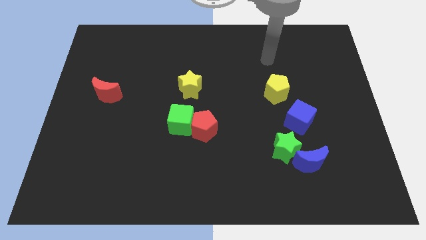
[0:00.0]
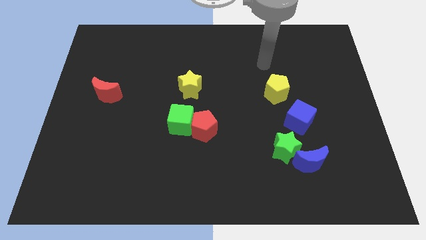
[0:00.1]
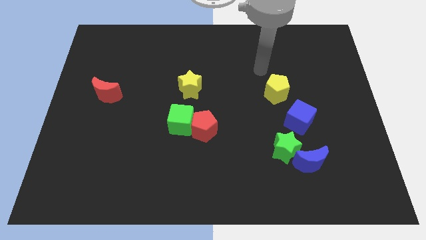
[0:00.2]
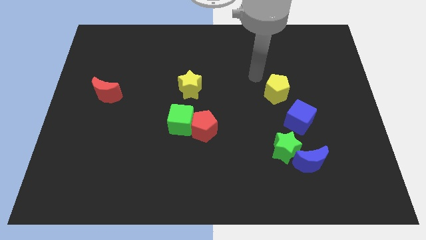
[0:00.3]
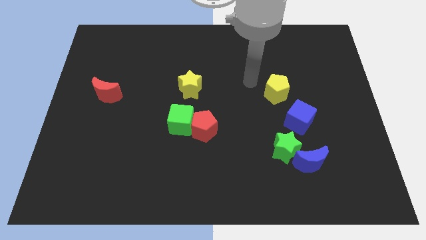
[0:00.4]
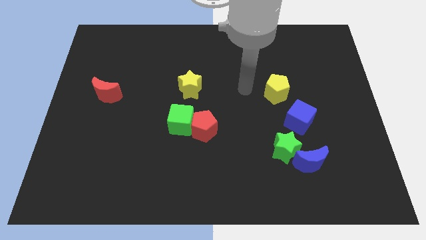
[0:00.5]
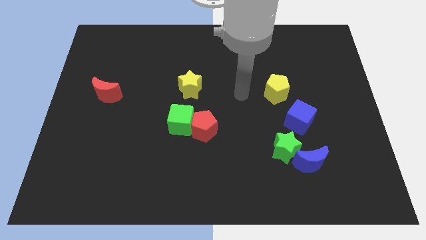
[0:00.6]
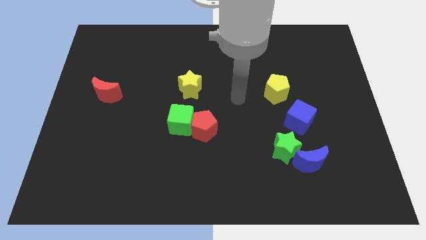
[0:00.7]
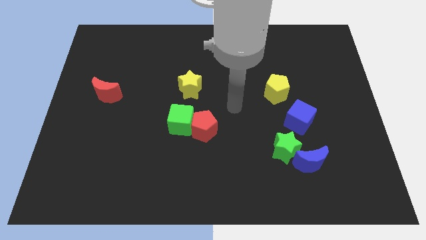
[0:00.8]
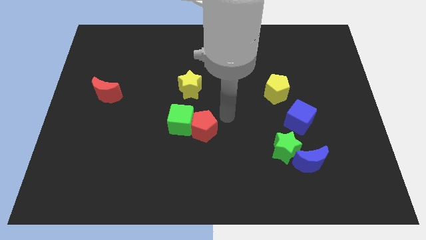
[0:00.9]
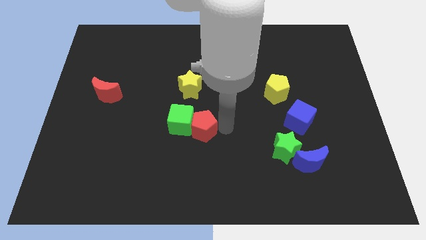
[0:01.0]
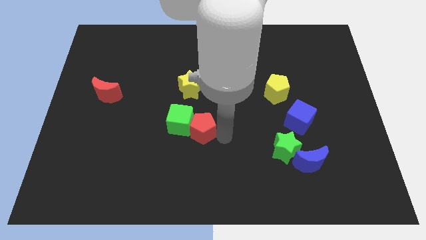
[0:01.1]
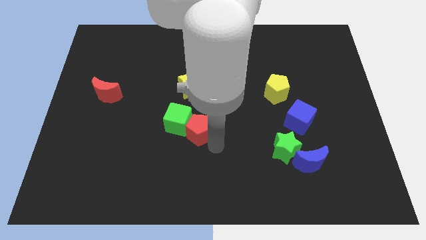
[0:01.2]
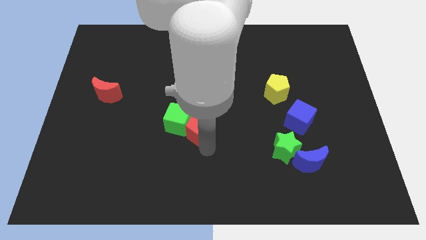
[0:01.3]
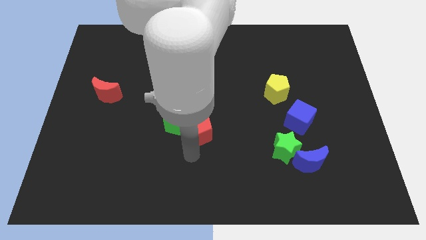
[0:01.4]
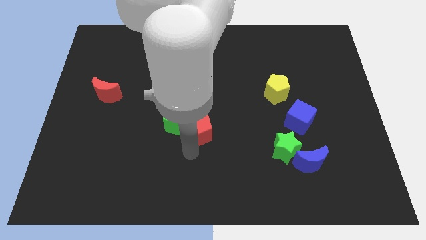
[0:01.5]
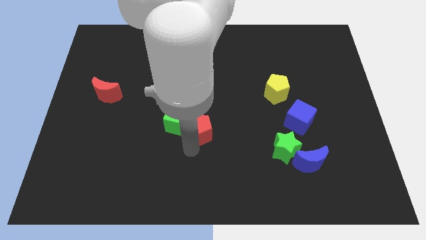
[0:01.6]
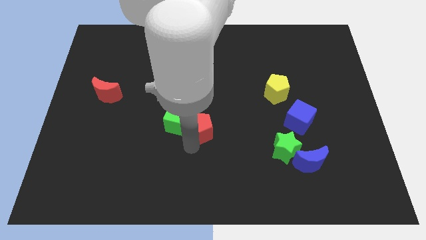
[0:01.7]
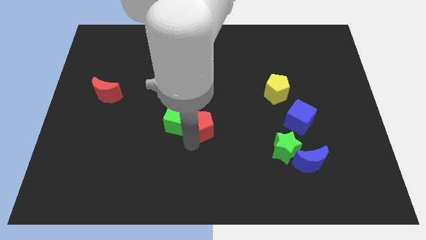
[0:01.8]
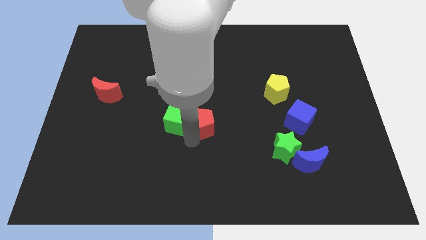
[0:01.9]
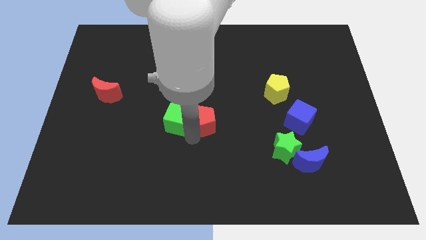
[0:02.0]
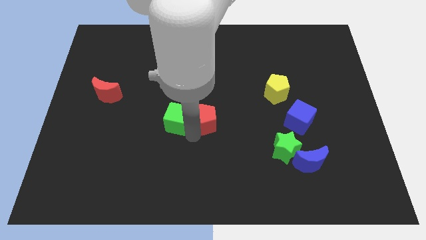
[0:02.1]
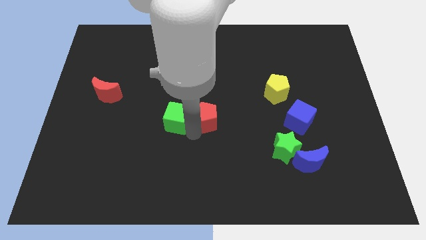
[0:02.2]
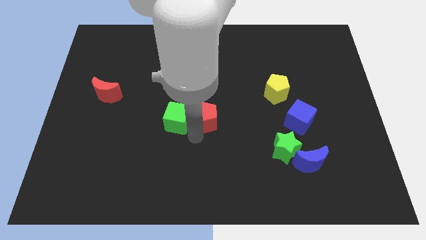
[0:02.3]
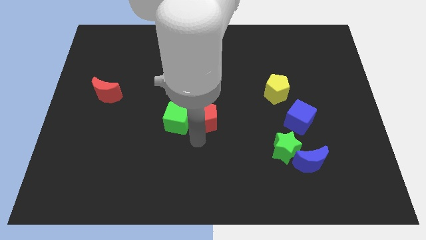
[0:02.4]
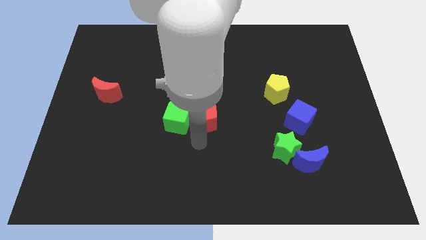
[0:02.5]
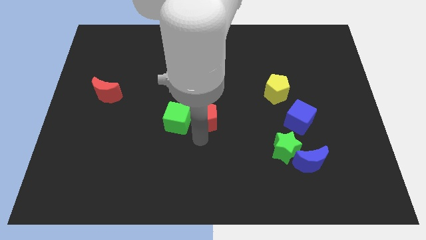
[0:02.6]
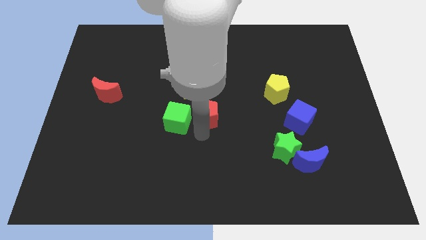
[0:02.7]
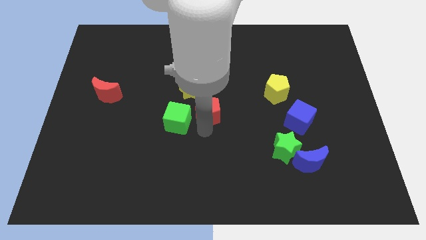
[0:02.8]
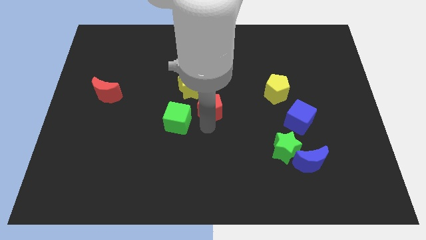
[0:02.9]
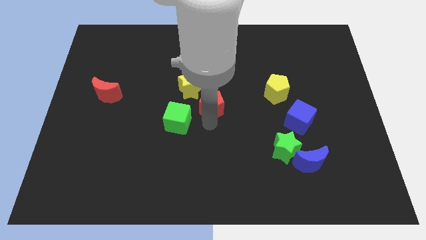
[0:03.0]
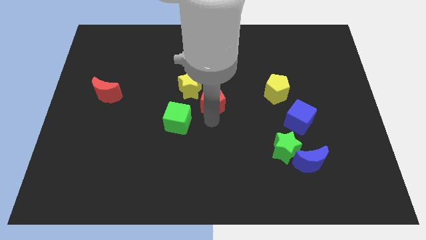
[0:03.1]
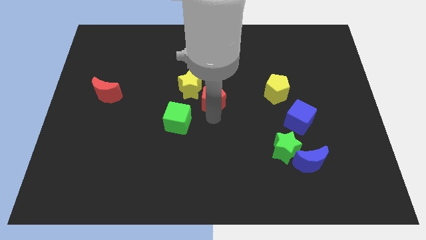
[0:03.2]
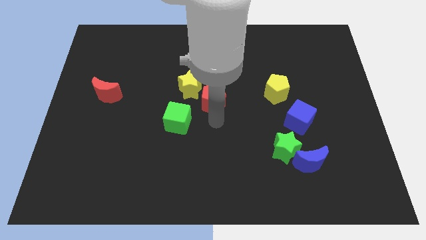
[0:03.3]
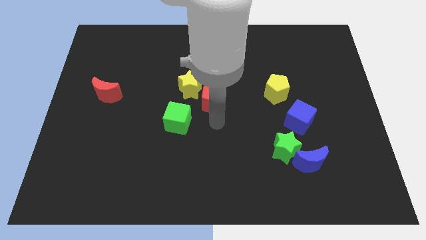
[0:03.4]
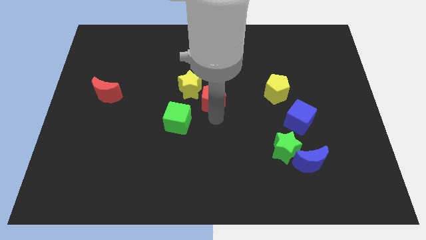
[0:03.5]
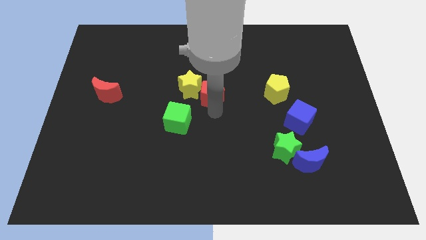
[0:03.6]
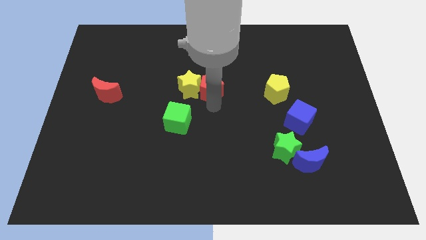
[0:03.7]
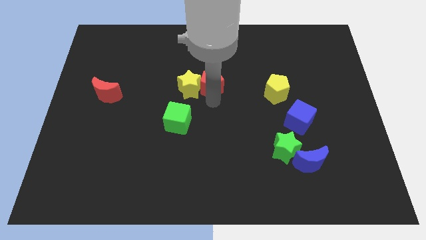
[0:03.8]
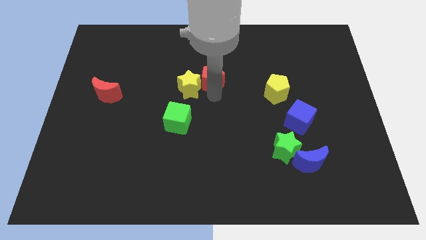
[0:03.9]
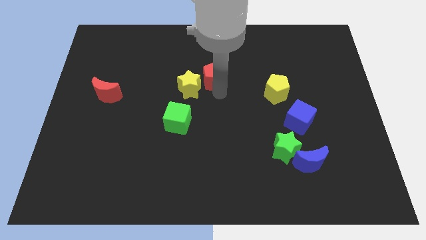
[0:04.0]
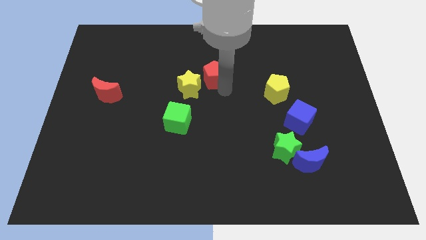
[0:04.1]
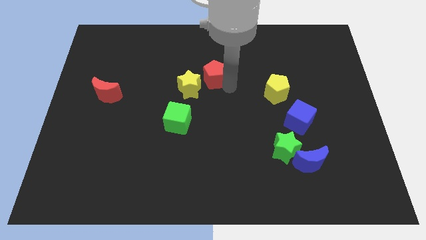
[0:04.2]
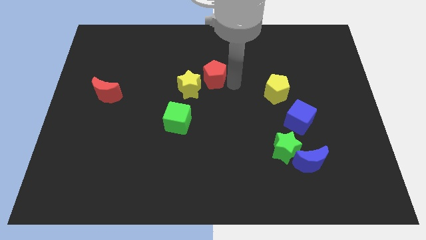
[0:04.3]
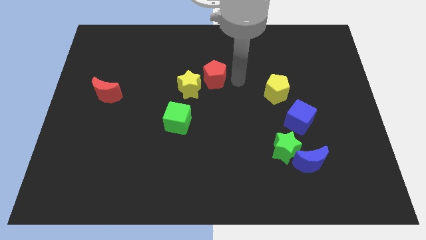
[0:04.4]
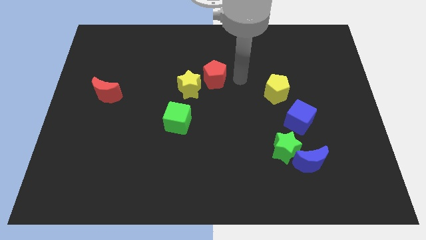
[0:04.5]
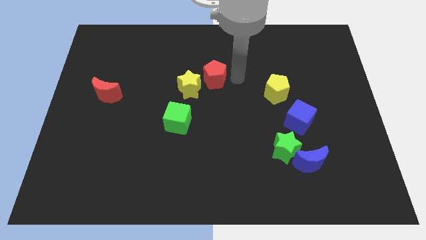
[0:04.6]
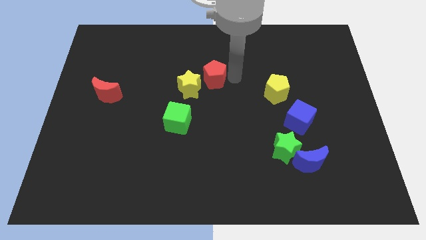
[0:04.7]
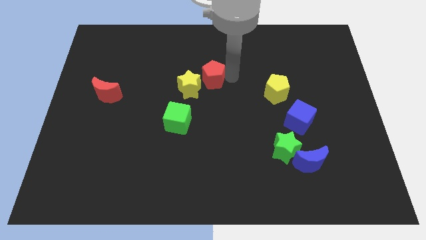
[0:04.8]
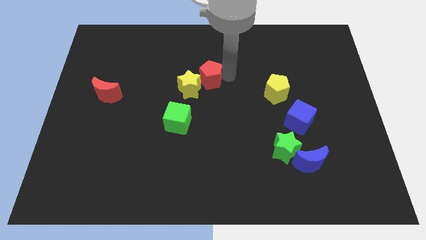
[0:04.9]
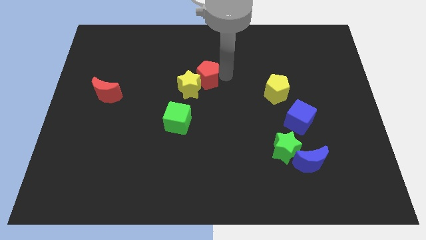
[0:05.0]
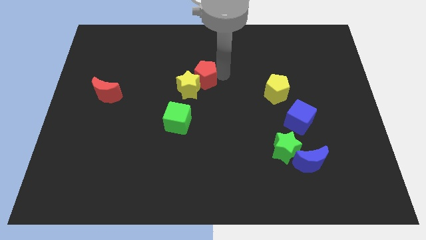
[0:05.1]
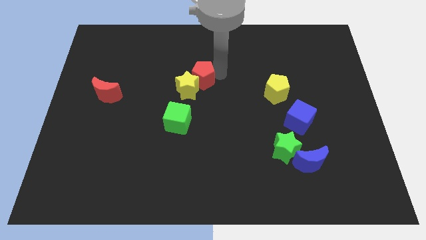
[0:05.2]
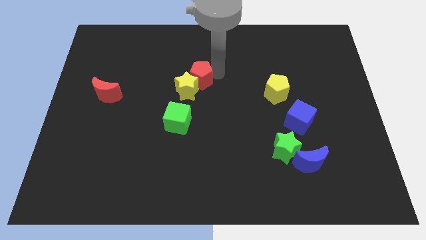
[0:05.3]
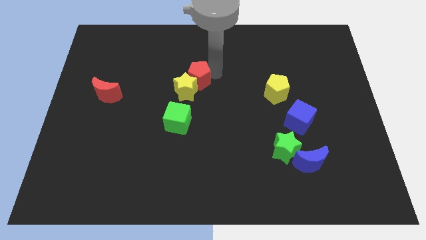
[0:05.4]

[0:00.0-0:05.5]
move the red pentagon to the top of the green cube

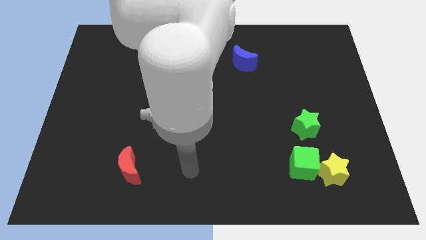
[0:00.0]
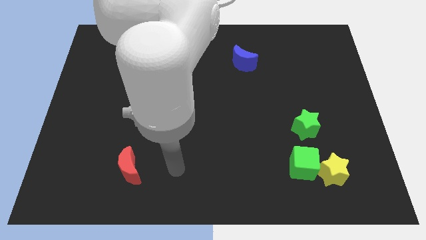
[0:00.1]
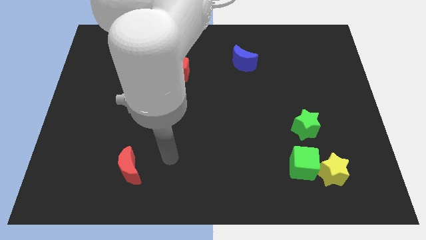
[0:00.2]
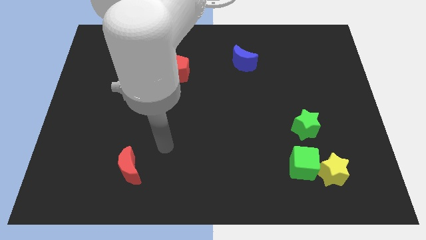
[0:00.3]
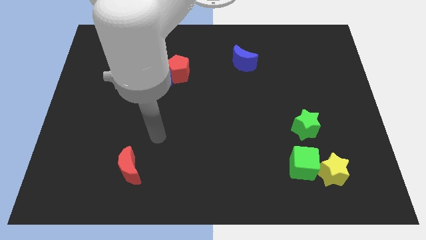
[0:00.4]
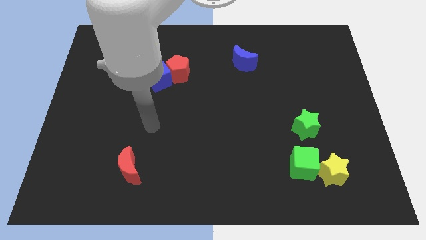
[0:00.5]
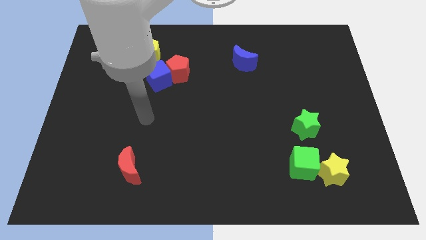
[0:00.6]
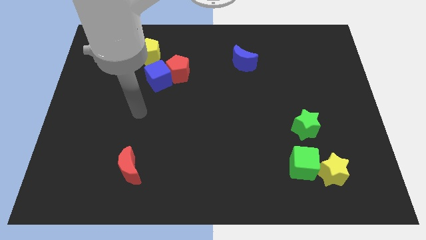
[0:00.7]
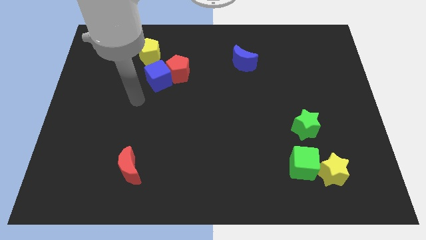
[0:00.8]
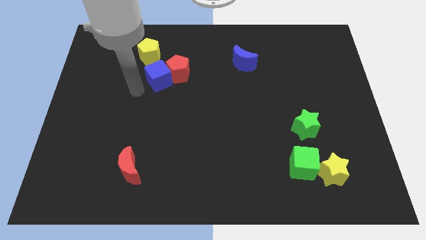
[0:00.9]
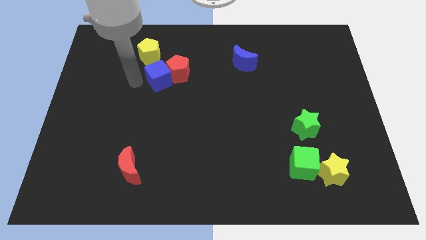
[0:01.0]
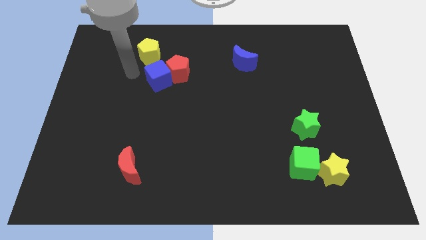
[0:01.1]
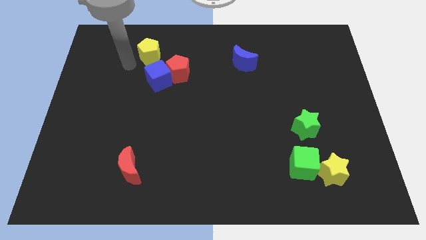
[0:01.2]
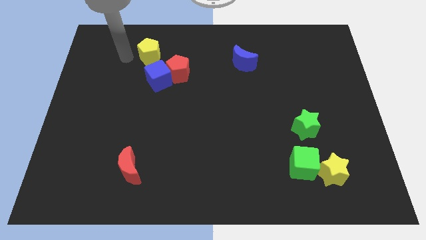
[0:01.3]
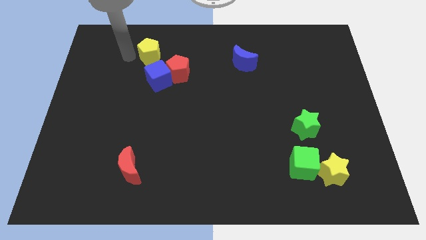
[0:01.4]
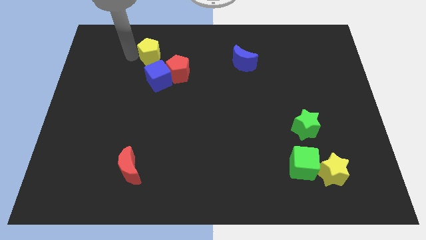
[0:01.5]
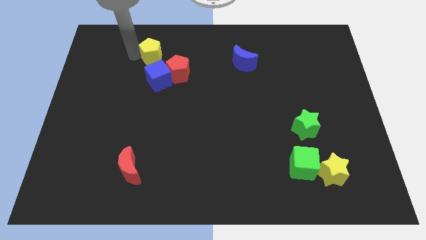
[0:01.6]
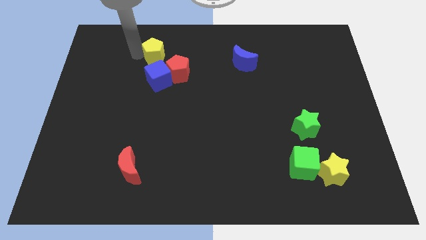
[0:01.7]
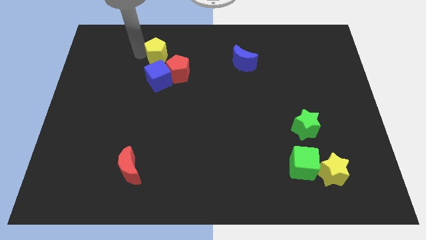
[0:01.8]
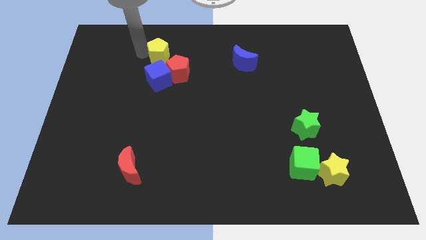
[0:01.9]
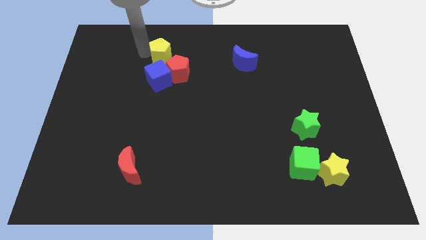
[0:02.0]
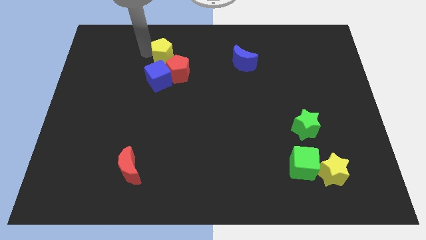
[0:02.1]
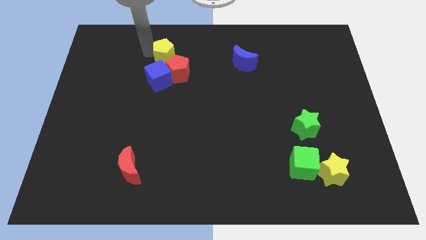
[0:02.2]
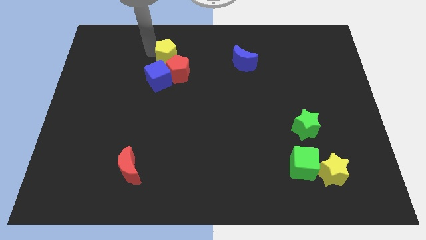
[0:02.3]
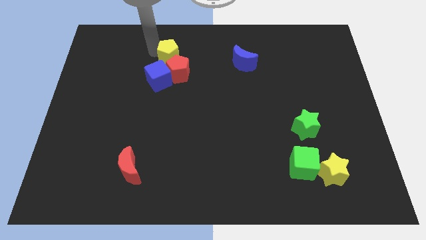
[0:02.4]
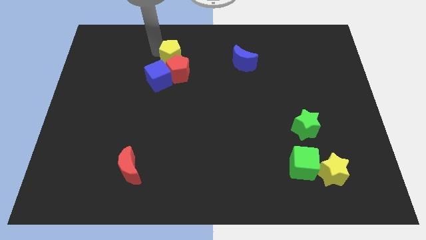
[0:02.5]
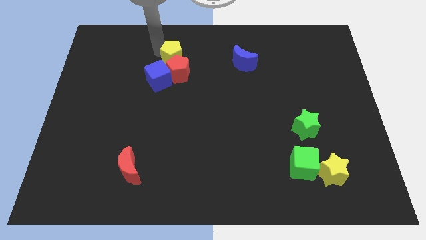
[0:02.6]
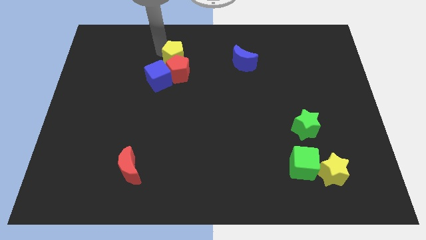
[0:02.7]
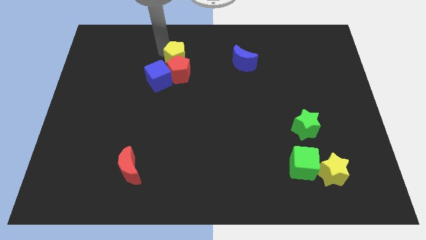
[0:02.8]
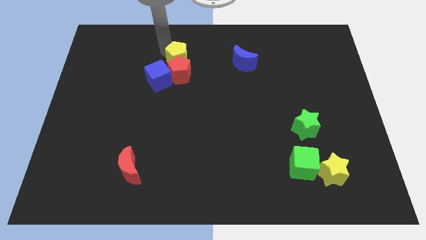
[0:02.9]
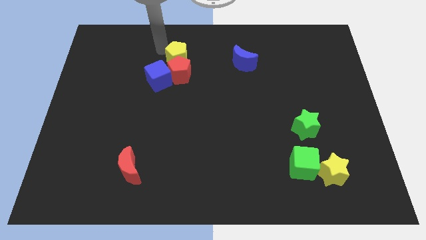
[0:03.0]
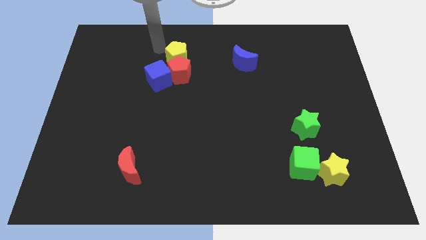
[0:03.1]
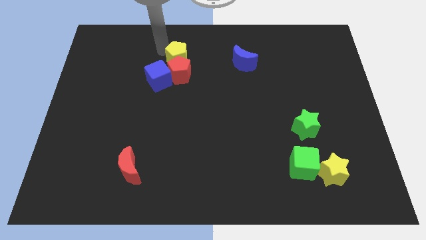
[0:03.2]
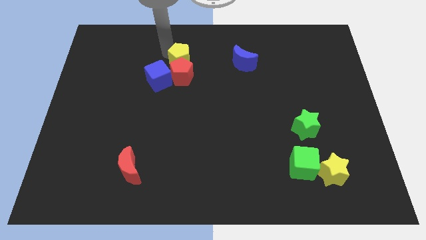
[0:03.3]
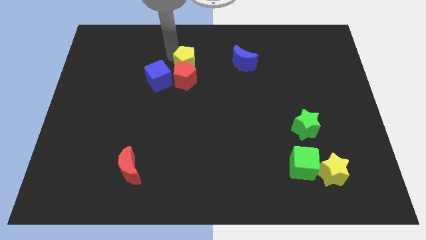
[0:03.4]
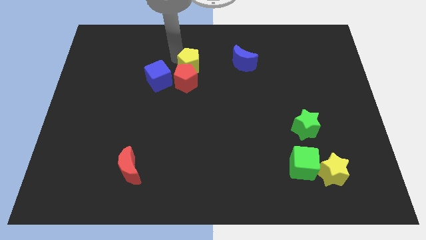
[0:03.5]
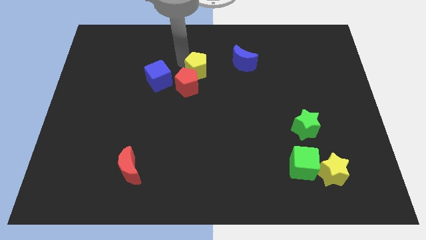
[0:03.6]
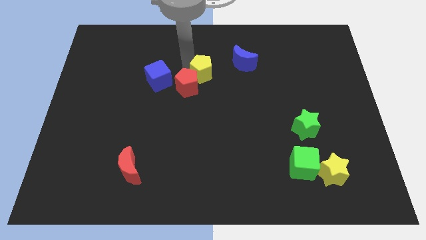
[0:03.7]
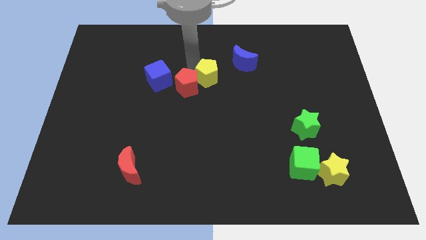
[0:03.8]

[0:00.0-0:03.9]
slide the yellow pentagon diagonally down and to the left of the blue moon
